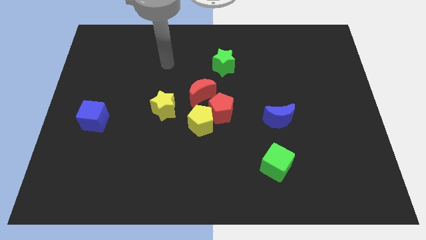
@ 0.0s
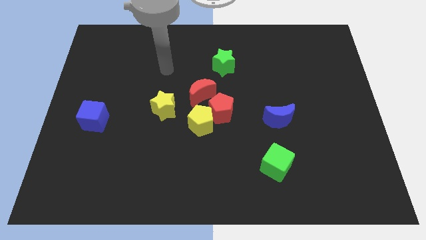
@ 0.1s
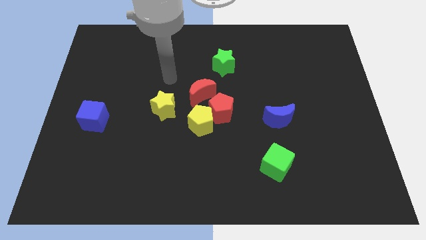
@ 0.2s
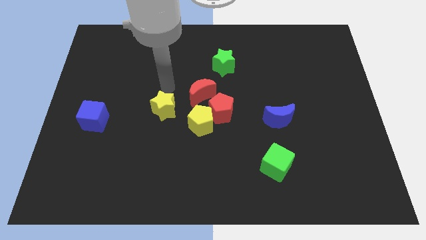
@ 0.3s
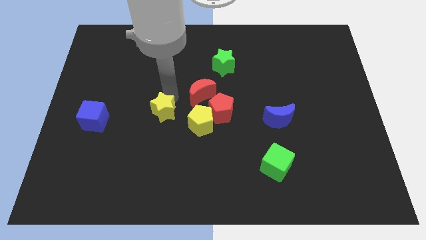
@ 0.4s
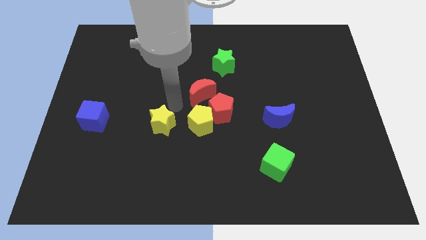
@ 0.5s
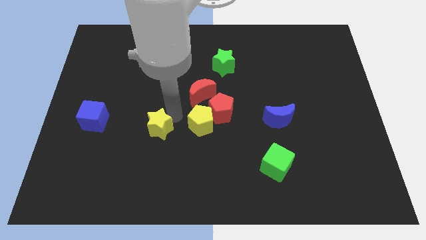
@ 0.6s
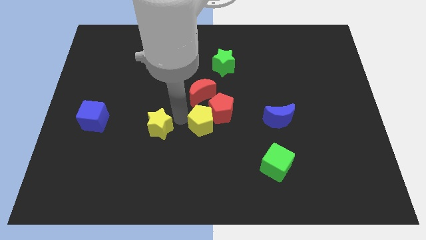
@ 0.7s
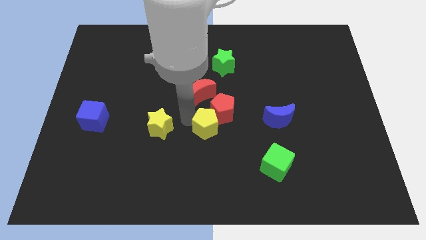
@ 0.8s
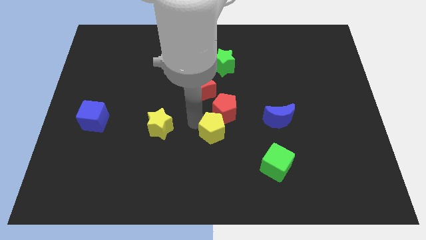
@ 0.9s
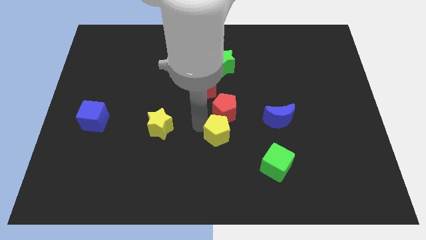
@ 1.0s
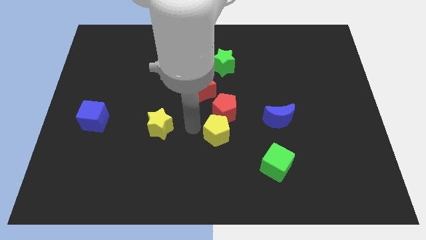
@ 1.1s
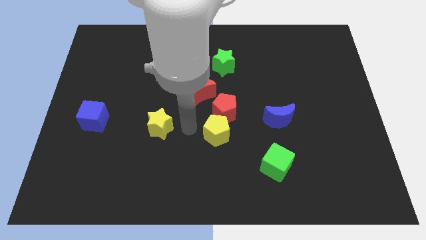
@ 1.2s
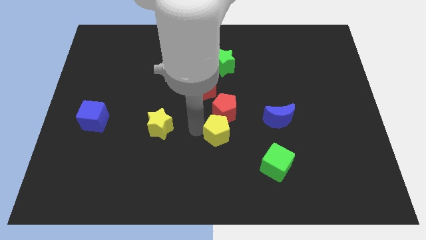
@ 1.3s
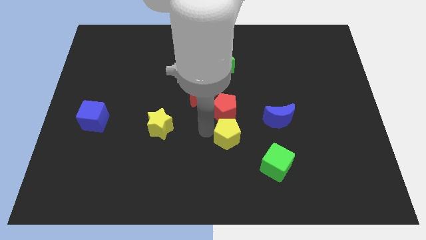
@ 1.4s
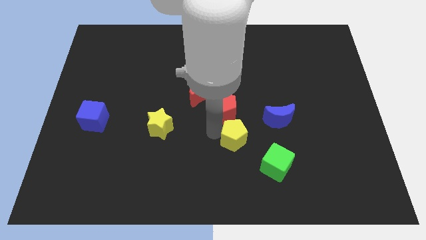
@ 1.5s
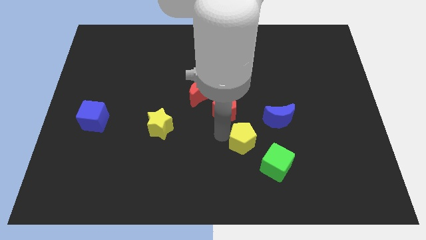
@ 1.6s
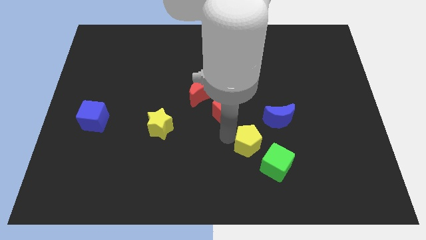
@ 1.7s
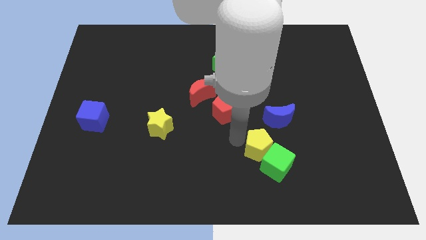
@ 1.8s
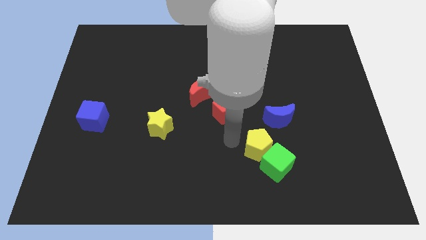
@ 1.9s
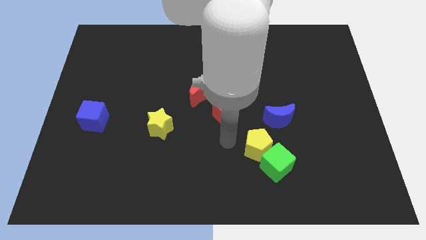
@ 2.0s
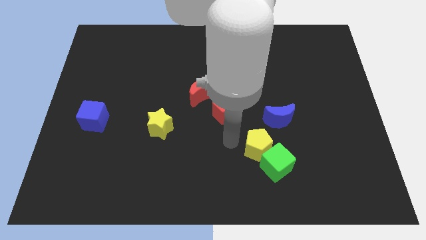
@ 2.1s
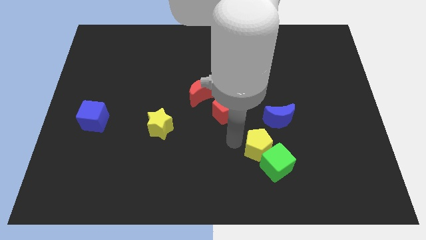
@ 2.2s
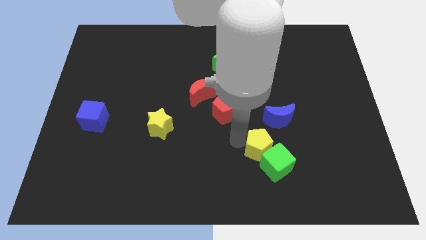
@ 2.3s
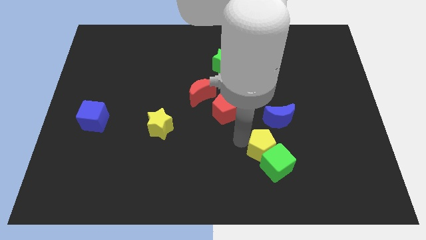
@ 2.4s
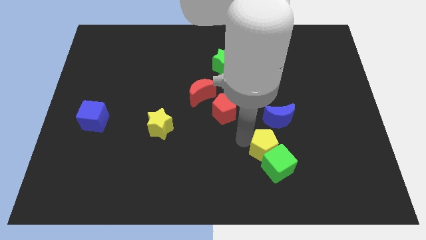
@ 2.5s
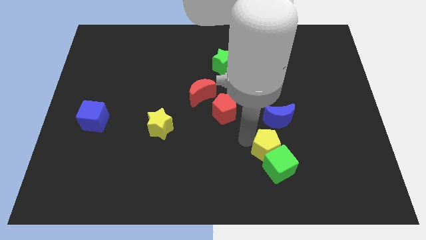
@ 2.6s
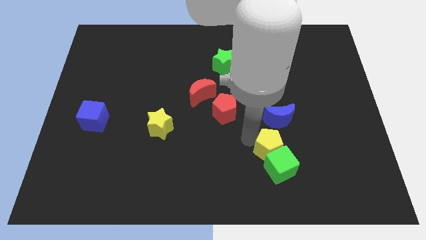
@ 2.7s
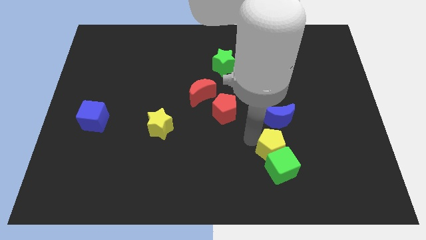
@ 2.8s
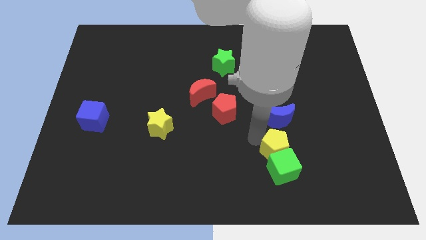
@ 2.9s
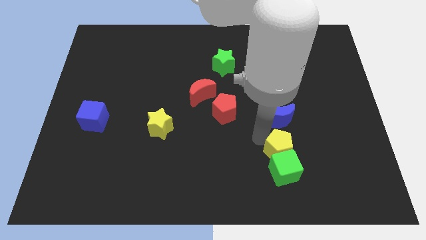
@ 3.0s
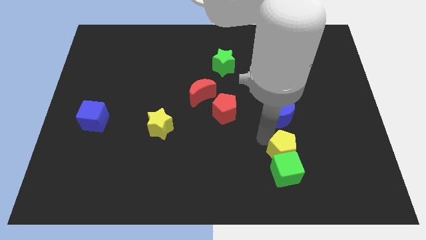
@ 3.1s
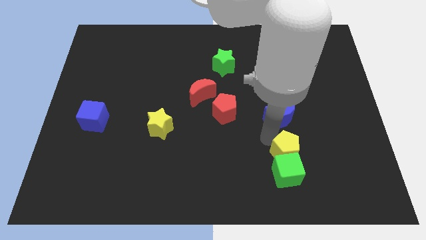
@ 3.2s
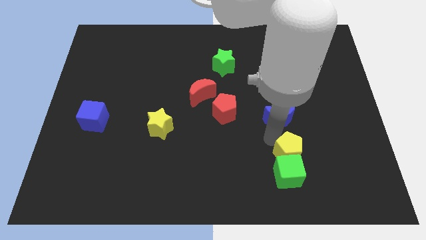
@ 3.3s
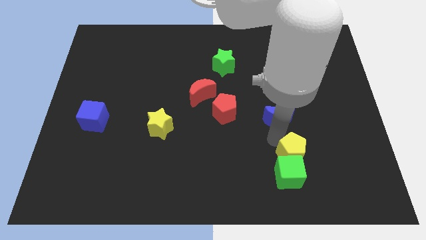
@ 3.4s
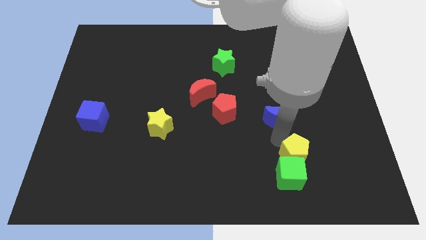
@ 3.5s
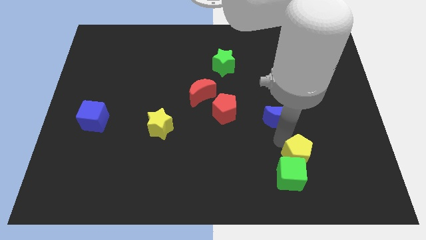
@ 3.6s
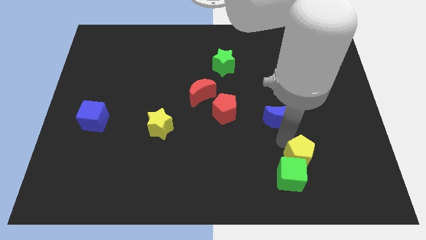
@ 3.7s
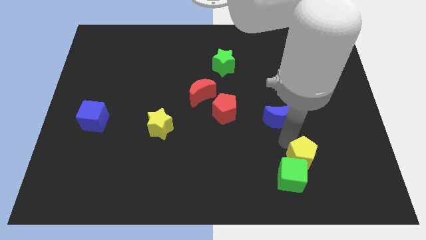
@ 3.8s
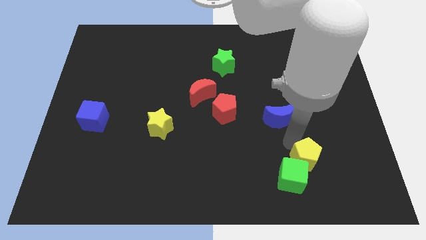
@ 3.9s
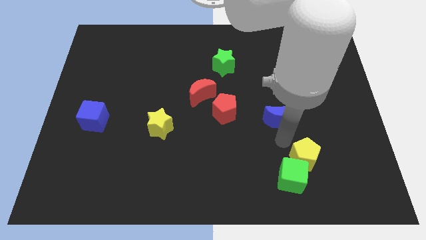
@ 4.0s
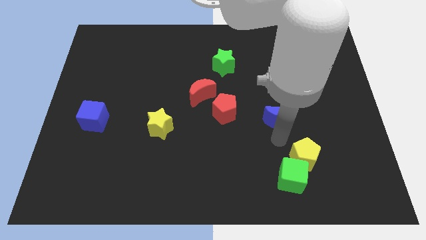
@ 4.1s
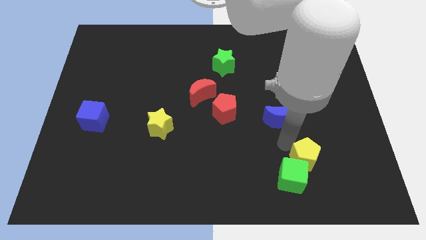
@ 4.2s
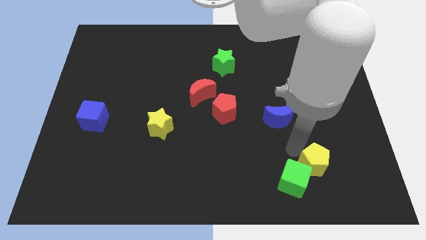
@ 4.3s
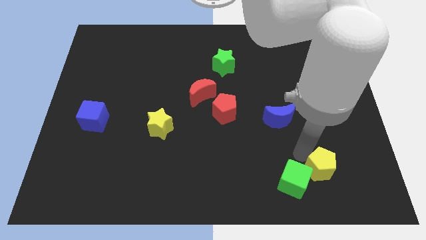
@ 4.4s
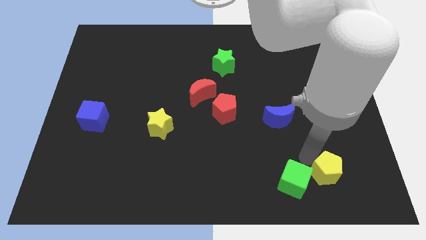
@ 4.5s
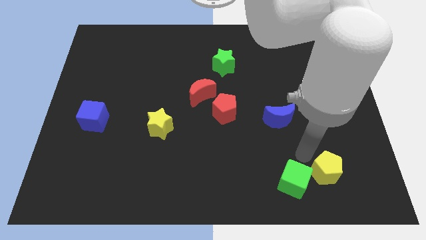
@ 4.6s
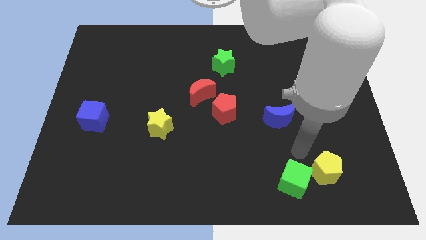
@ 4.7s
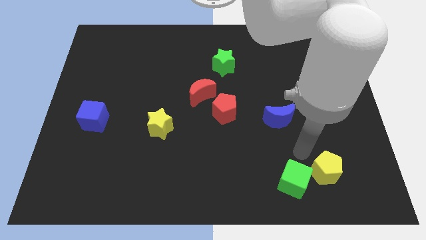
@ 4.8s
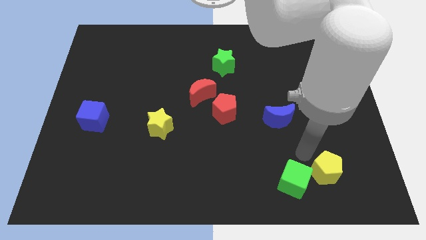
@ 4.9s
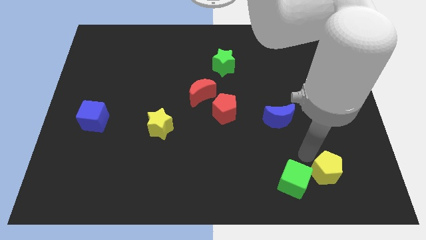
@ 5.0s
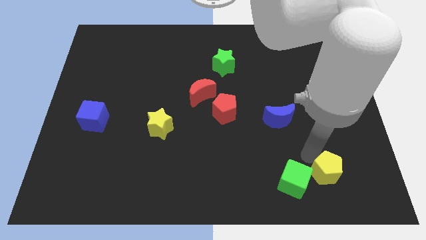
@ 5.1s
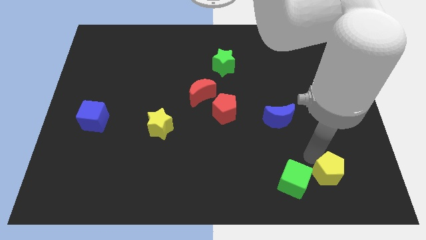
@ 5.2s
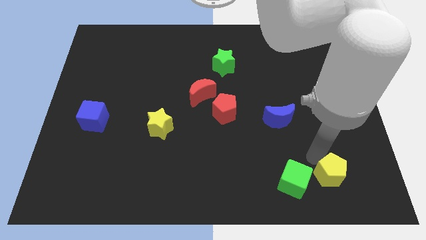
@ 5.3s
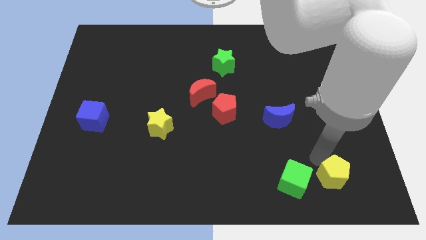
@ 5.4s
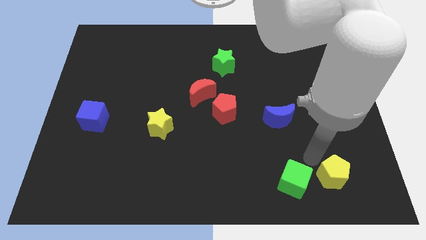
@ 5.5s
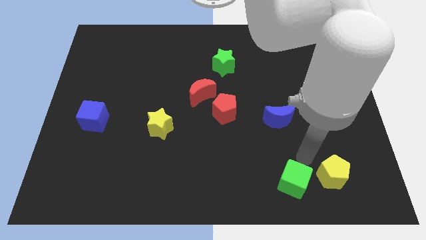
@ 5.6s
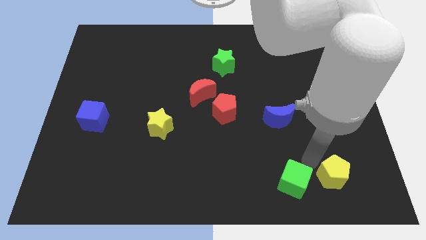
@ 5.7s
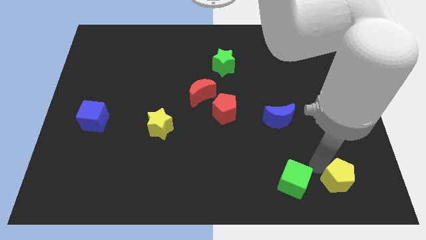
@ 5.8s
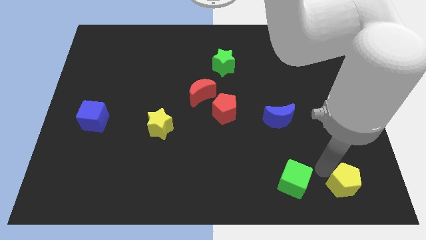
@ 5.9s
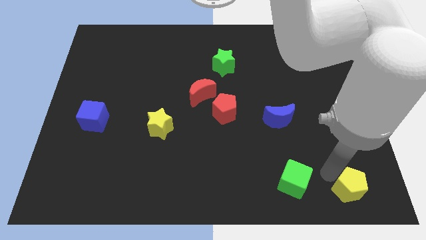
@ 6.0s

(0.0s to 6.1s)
slide the yellow pentagon to the bottom right
